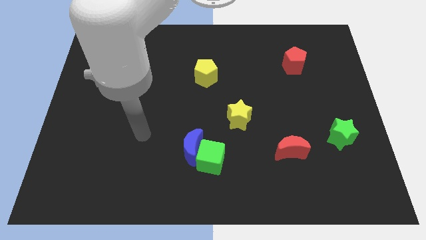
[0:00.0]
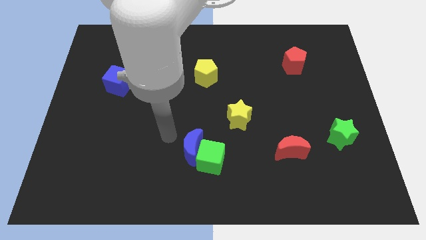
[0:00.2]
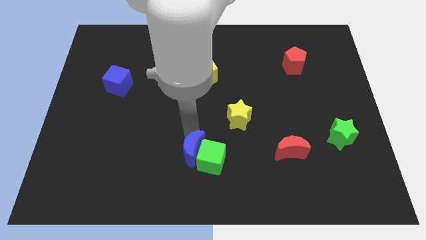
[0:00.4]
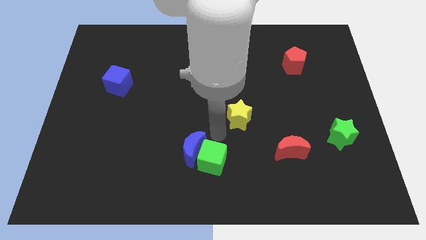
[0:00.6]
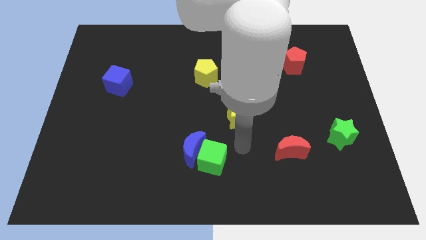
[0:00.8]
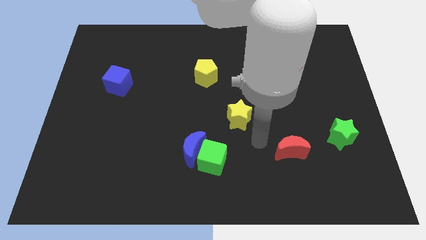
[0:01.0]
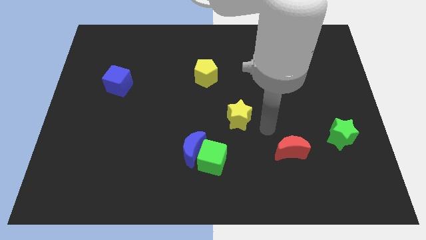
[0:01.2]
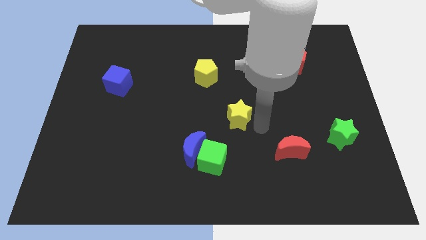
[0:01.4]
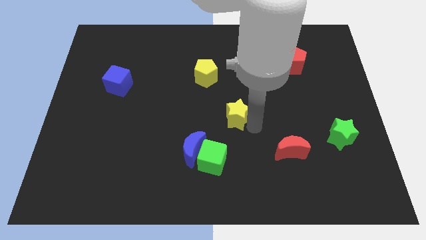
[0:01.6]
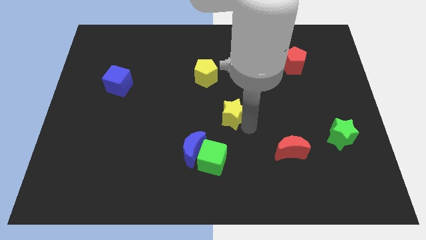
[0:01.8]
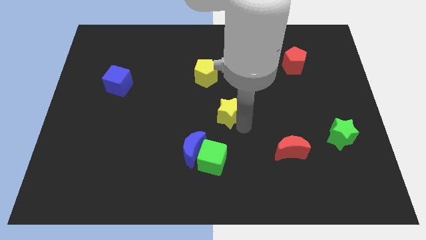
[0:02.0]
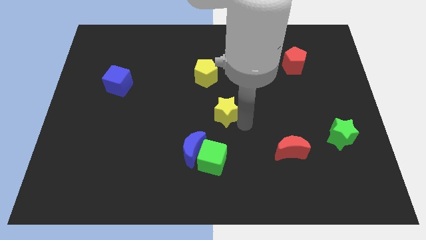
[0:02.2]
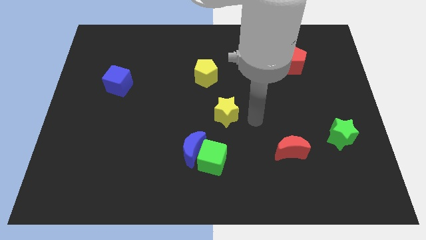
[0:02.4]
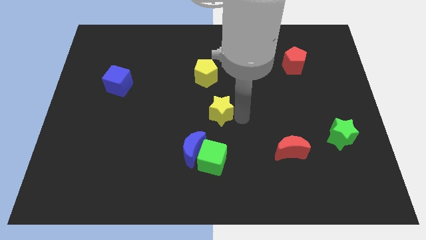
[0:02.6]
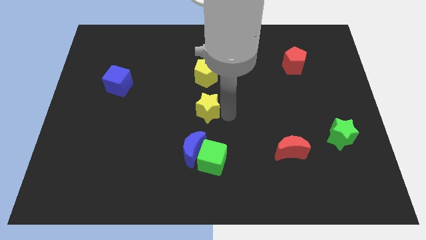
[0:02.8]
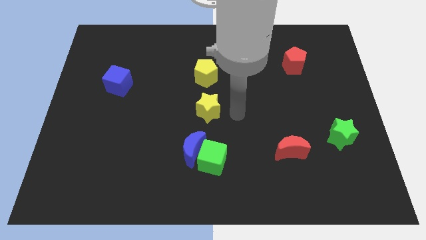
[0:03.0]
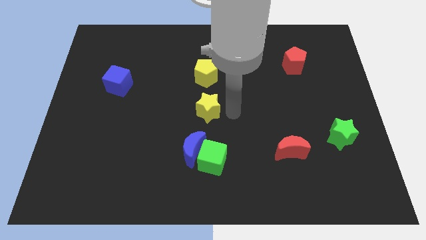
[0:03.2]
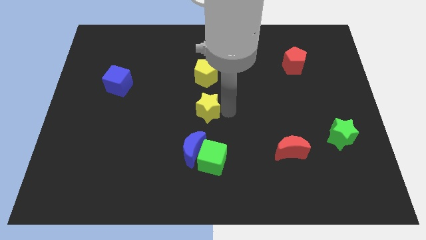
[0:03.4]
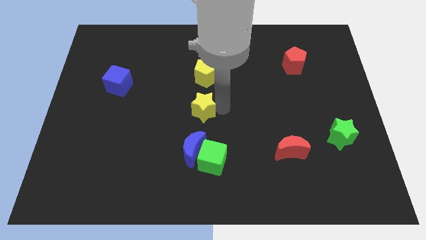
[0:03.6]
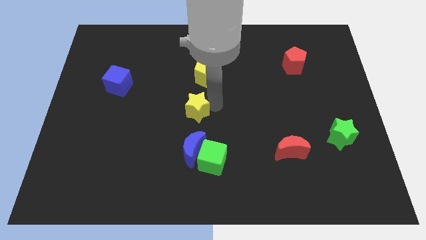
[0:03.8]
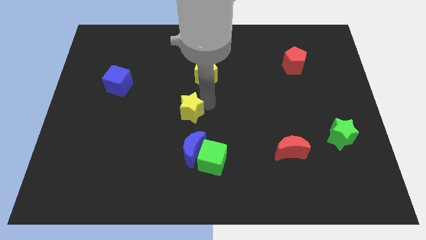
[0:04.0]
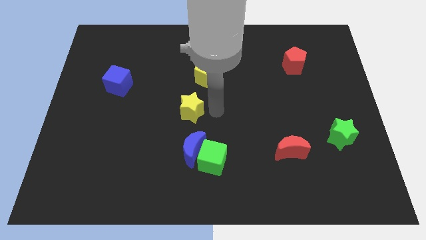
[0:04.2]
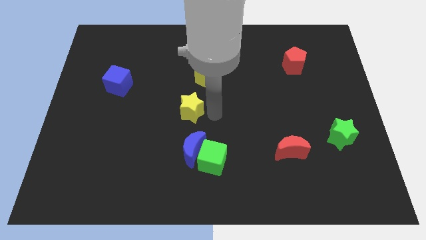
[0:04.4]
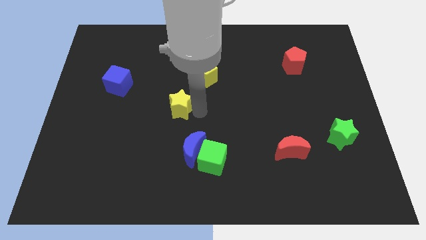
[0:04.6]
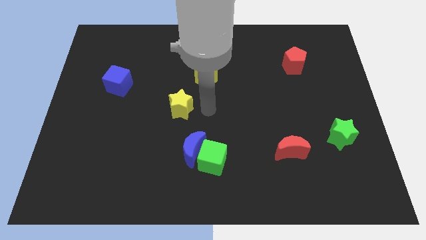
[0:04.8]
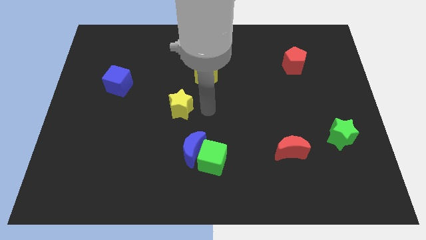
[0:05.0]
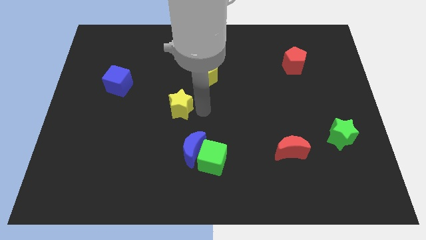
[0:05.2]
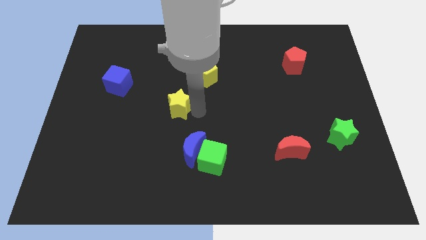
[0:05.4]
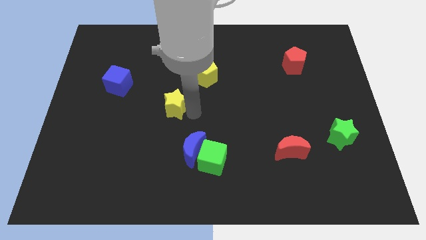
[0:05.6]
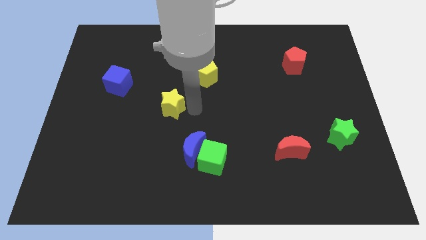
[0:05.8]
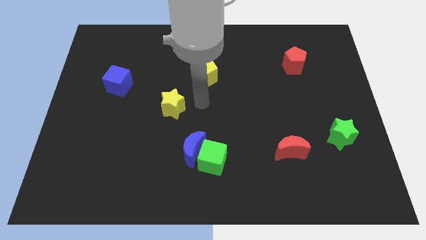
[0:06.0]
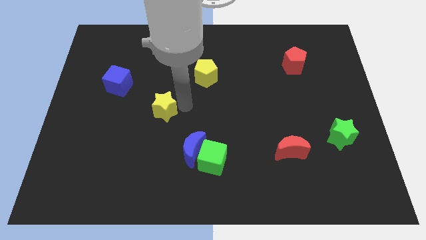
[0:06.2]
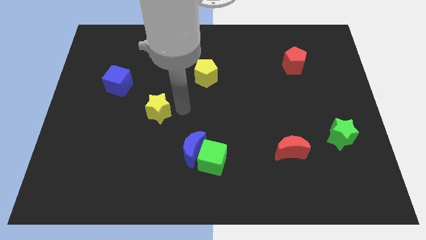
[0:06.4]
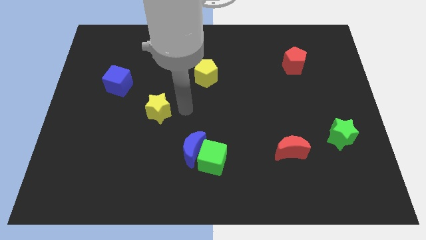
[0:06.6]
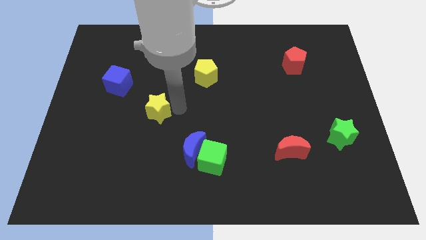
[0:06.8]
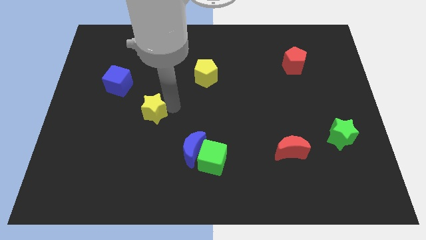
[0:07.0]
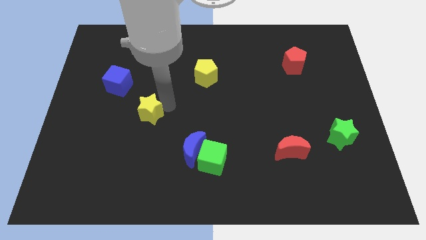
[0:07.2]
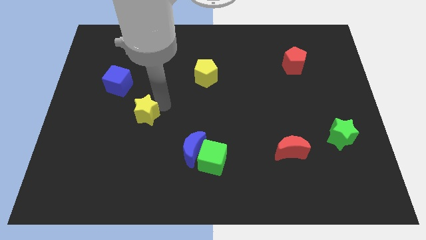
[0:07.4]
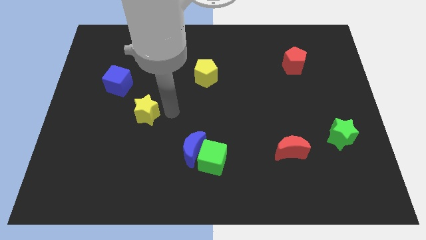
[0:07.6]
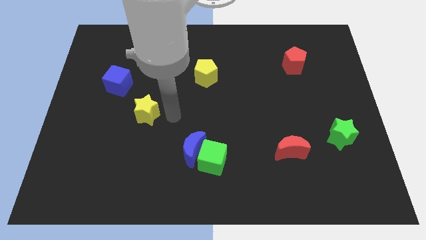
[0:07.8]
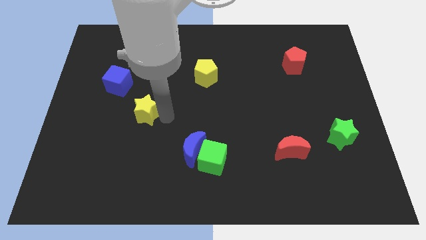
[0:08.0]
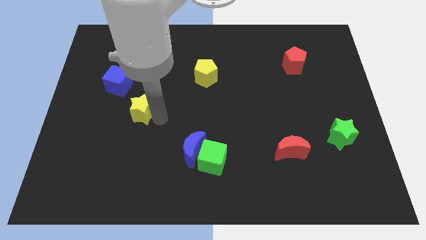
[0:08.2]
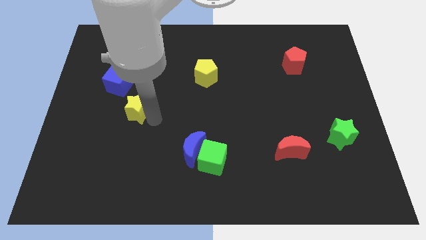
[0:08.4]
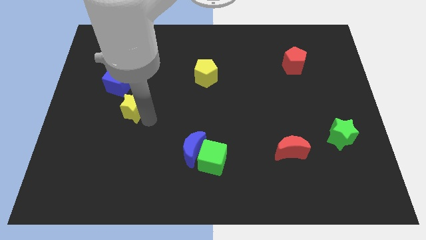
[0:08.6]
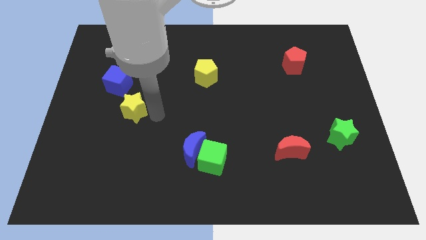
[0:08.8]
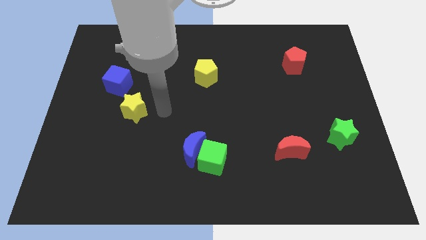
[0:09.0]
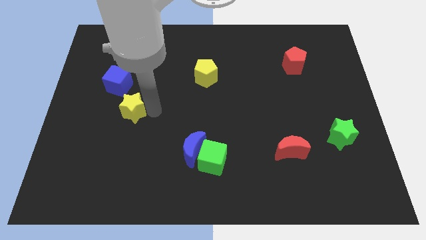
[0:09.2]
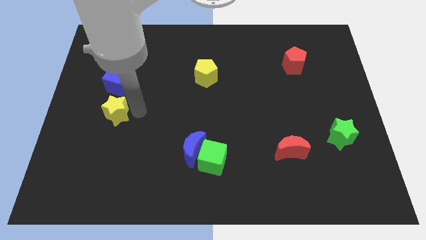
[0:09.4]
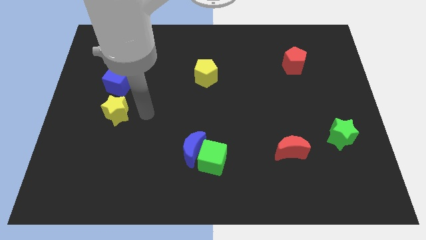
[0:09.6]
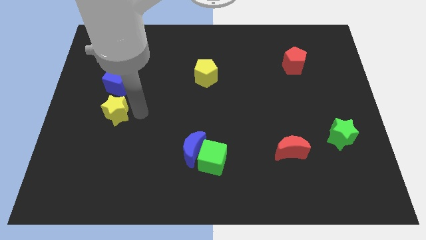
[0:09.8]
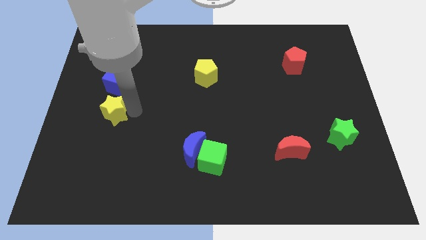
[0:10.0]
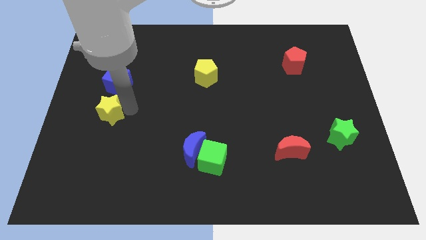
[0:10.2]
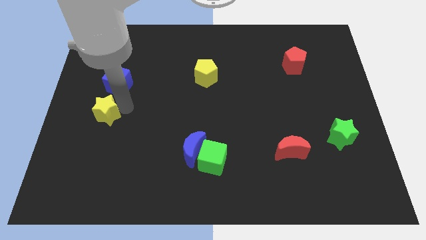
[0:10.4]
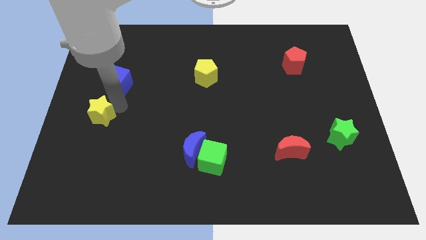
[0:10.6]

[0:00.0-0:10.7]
push the yellow star to the left side of the board

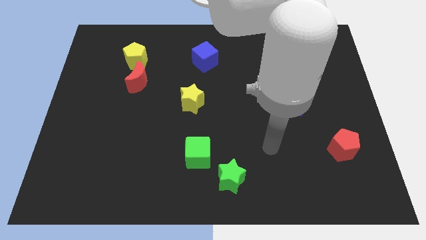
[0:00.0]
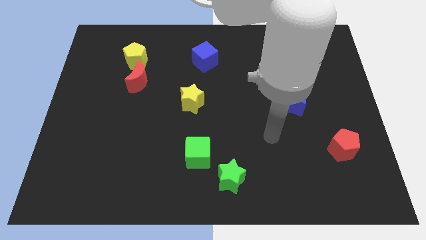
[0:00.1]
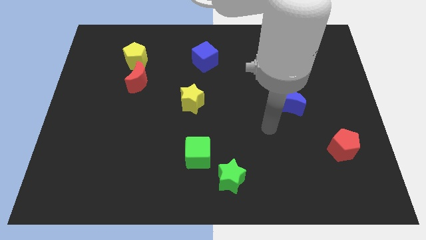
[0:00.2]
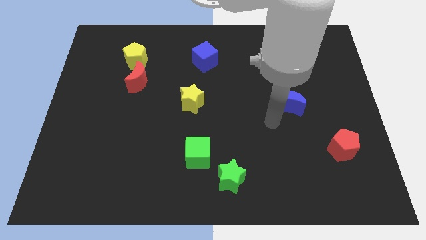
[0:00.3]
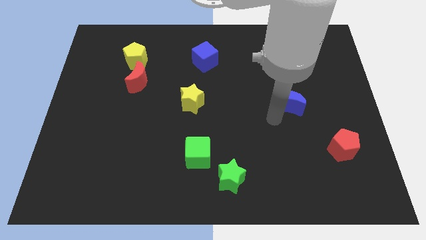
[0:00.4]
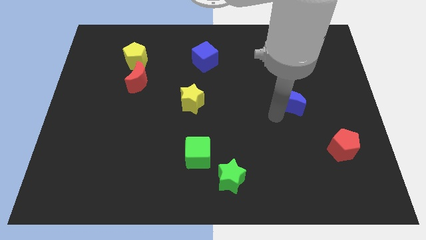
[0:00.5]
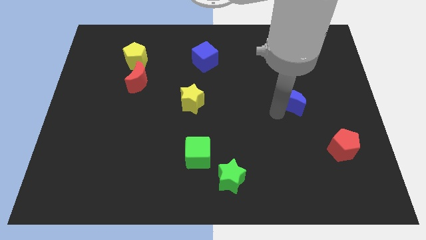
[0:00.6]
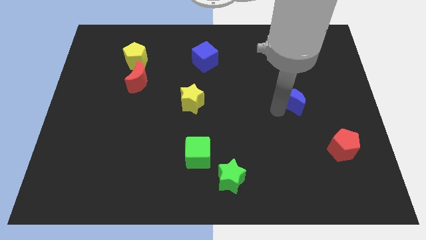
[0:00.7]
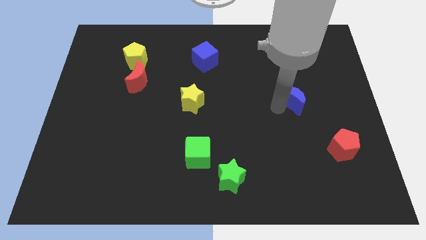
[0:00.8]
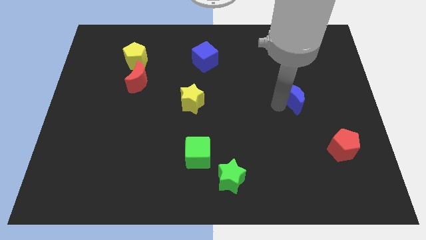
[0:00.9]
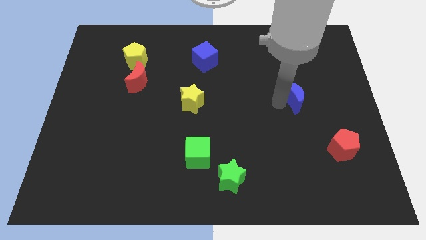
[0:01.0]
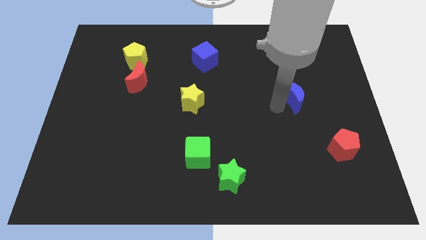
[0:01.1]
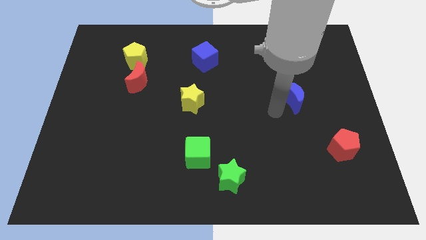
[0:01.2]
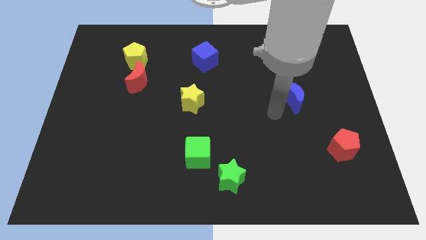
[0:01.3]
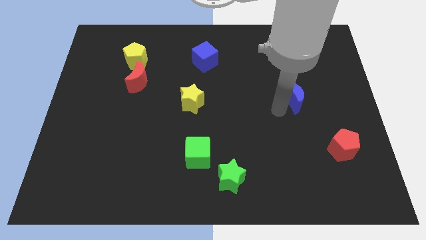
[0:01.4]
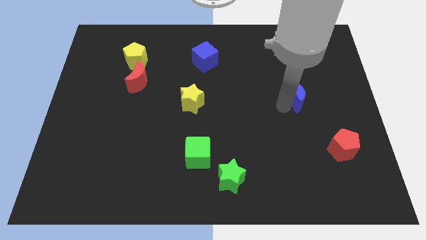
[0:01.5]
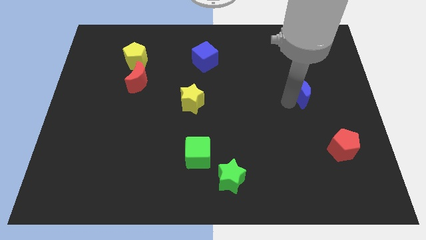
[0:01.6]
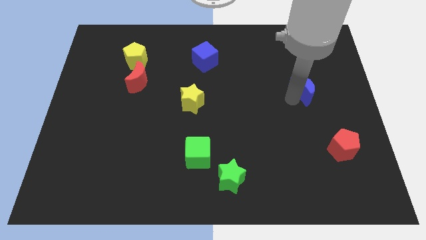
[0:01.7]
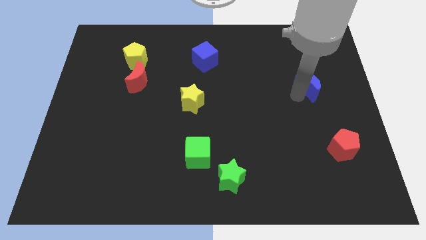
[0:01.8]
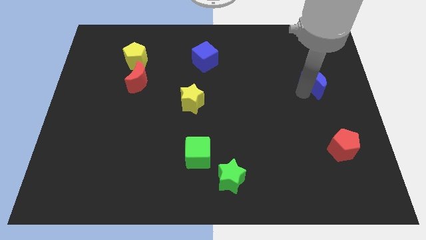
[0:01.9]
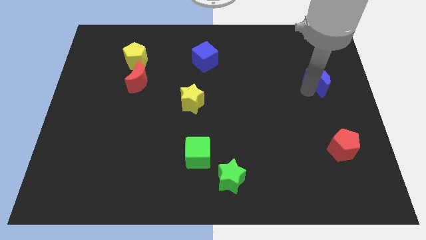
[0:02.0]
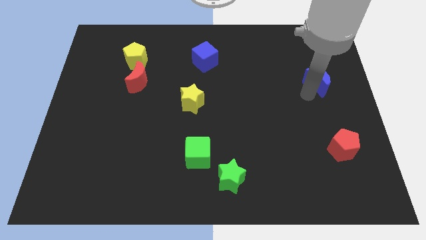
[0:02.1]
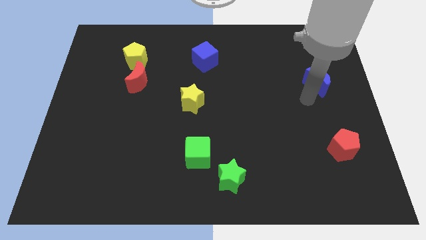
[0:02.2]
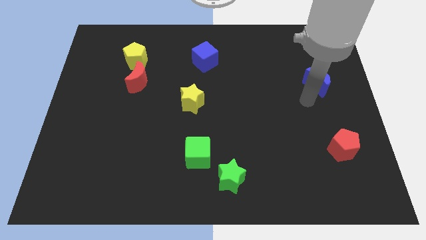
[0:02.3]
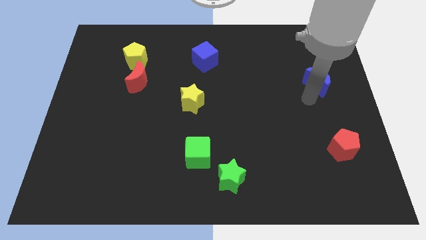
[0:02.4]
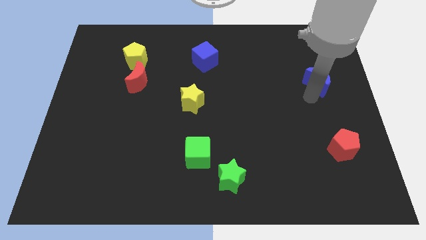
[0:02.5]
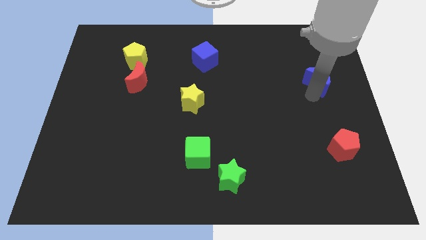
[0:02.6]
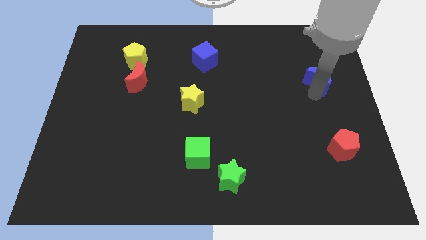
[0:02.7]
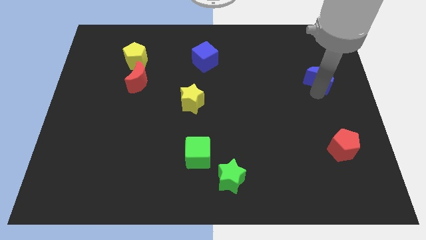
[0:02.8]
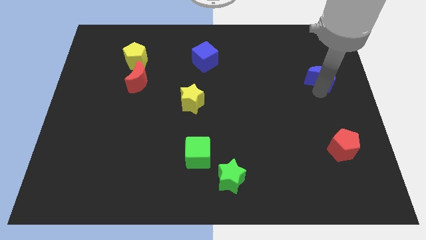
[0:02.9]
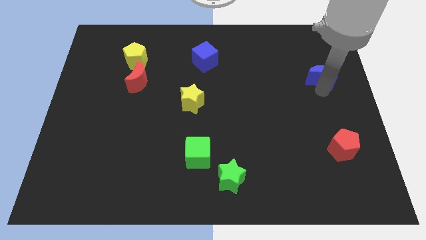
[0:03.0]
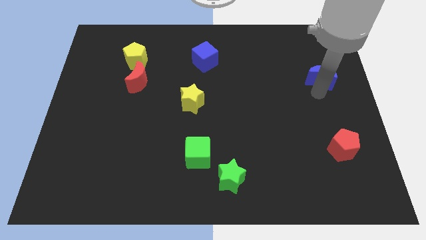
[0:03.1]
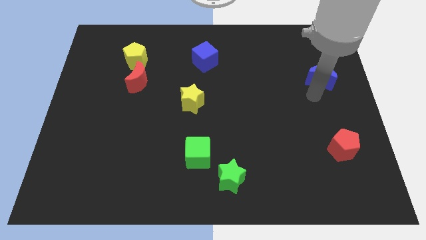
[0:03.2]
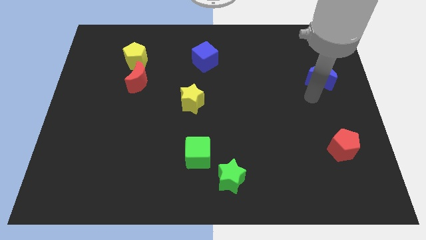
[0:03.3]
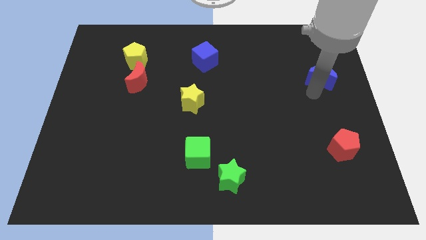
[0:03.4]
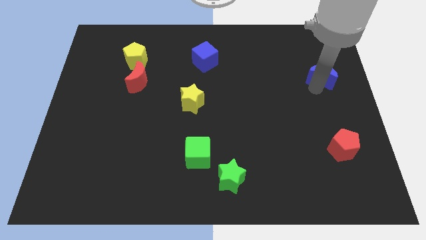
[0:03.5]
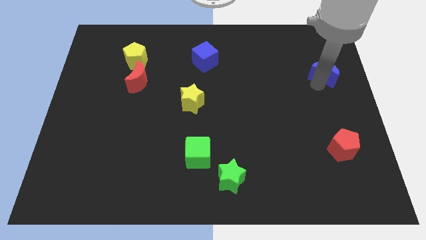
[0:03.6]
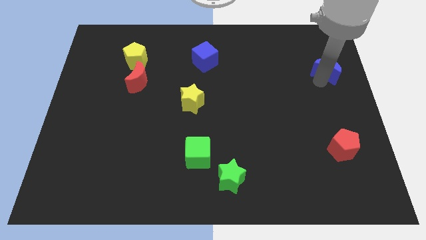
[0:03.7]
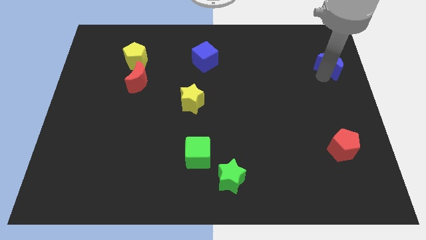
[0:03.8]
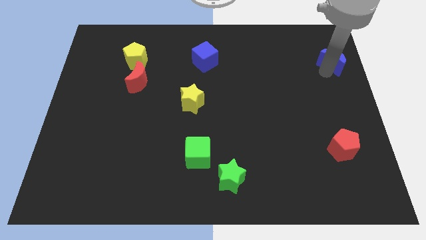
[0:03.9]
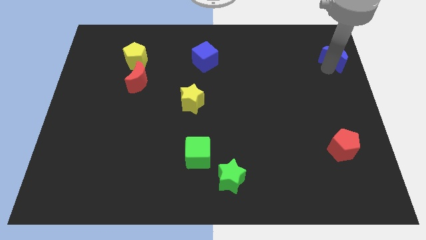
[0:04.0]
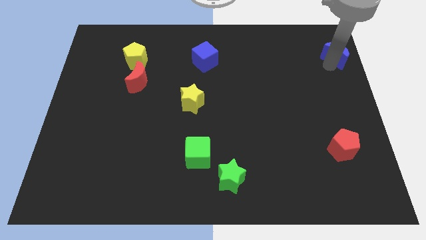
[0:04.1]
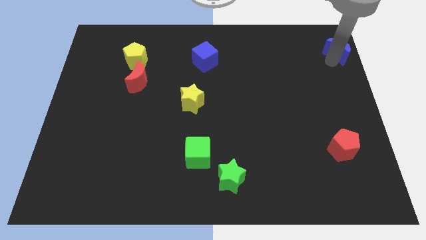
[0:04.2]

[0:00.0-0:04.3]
put the blue moon to the top right corner
